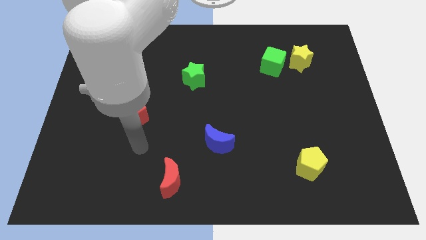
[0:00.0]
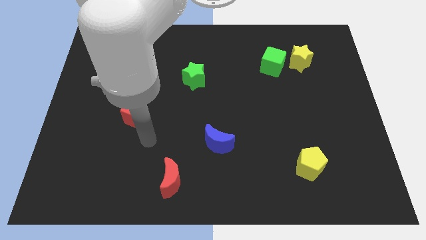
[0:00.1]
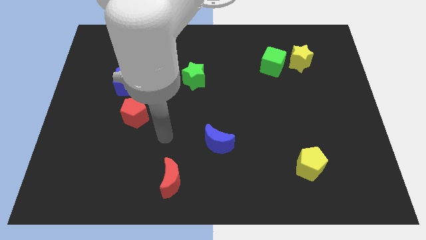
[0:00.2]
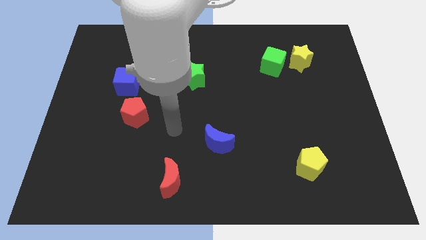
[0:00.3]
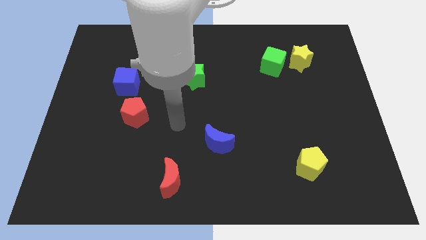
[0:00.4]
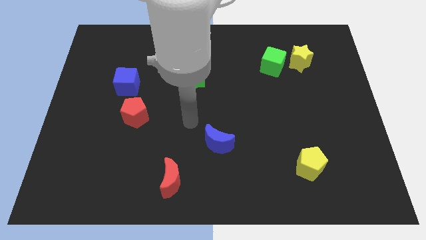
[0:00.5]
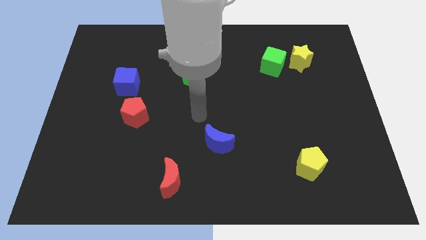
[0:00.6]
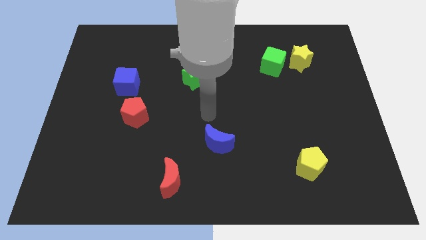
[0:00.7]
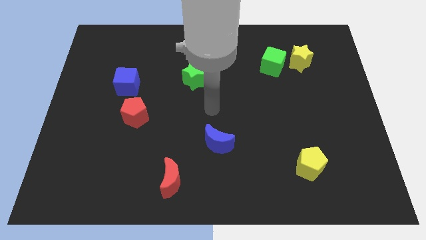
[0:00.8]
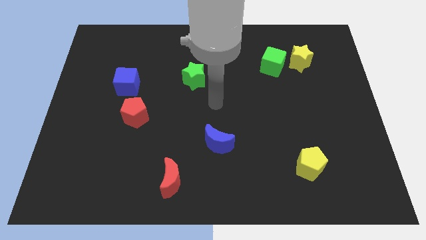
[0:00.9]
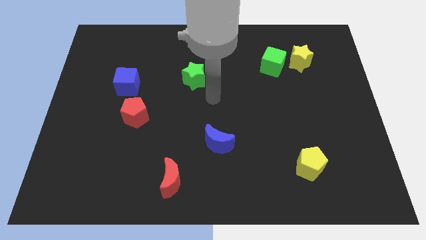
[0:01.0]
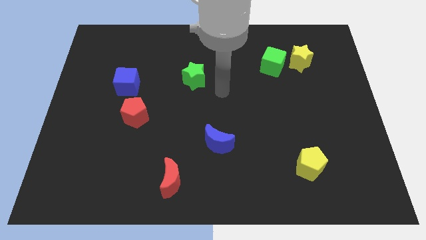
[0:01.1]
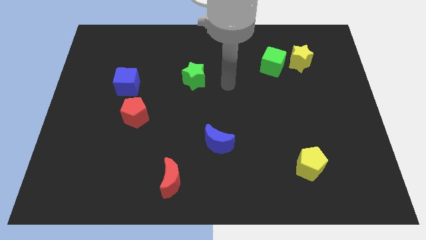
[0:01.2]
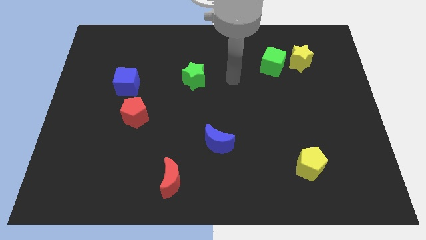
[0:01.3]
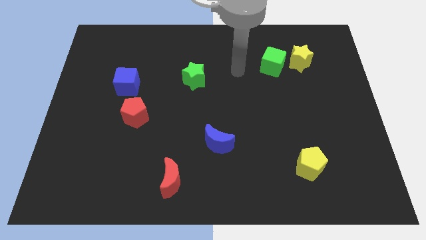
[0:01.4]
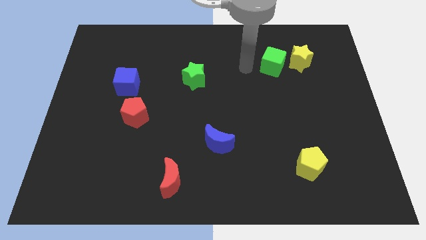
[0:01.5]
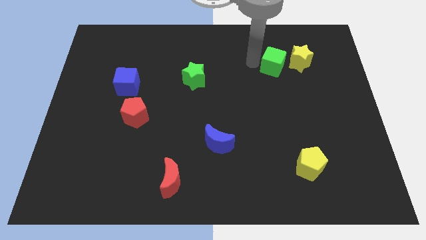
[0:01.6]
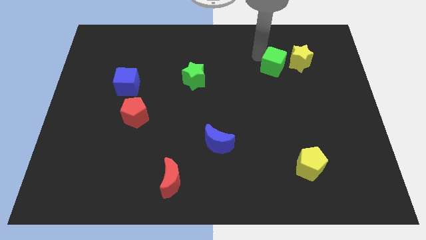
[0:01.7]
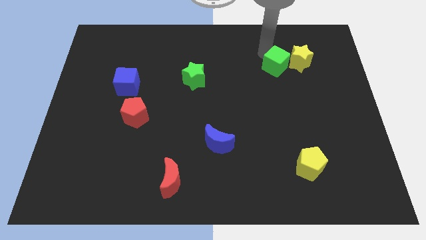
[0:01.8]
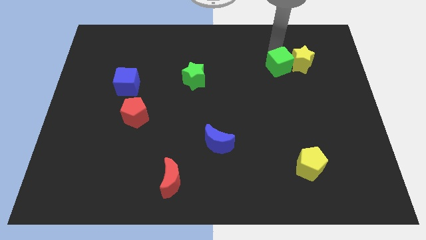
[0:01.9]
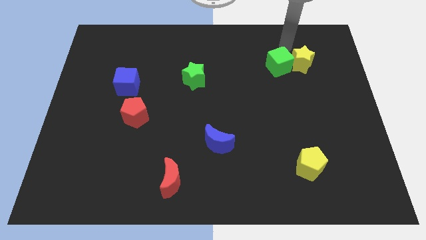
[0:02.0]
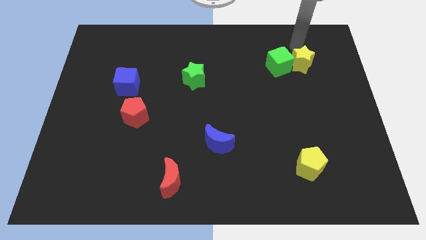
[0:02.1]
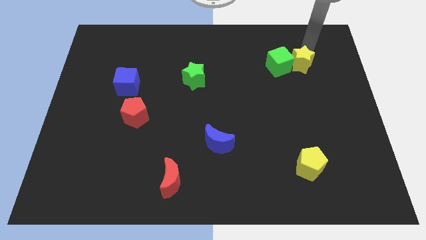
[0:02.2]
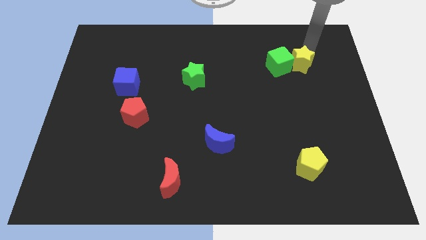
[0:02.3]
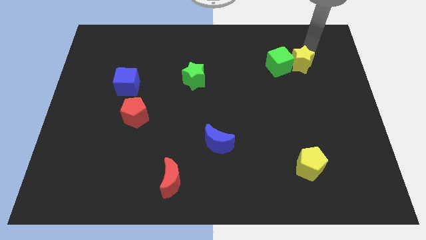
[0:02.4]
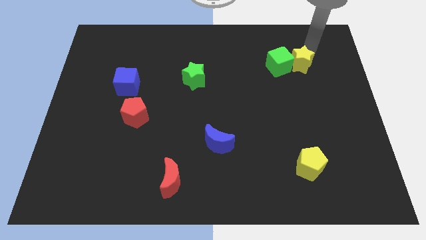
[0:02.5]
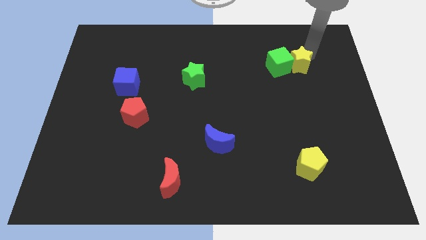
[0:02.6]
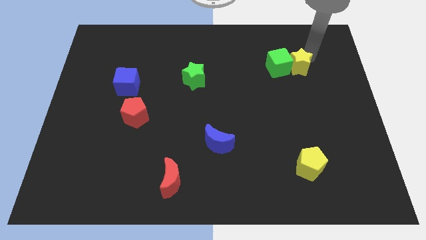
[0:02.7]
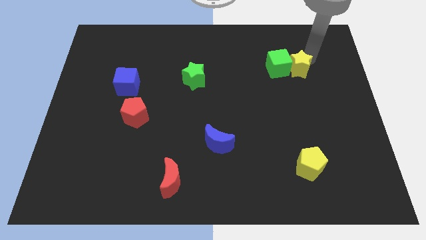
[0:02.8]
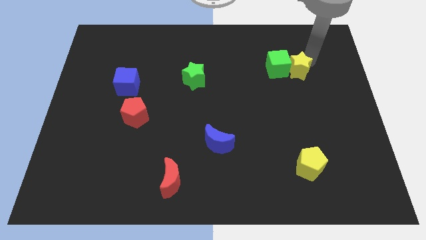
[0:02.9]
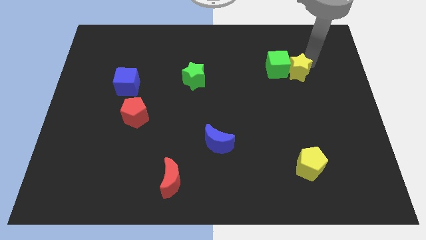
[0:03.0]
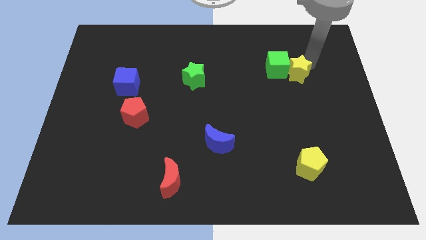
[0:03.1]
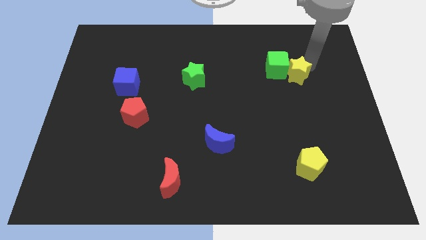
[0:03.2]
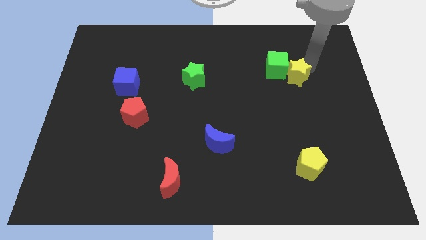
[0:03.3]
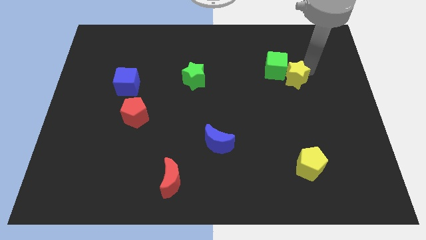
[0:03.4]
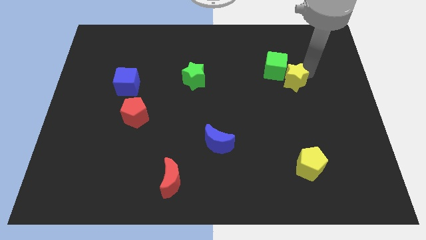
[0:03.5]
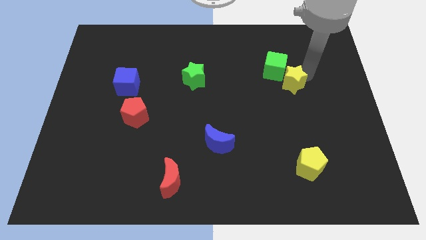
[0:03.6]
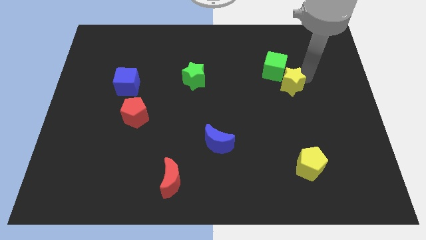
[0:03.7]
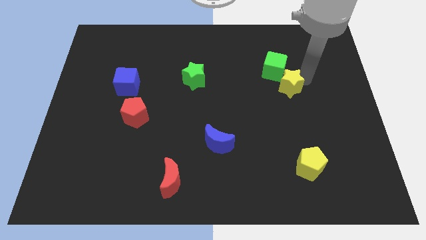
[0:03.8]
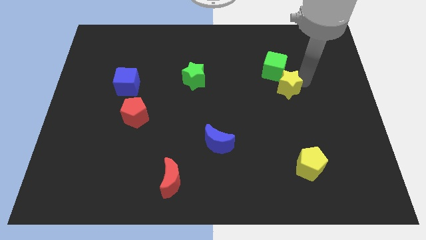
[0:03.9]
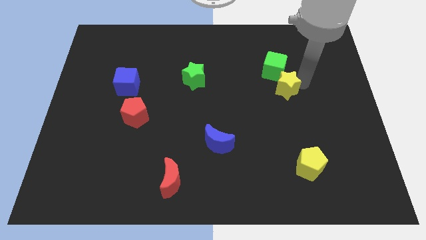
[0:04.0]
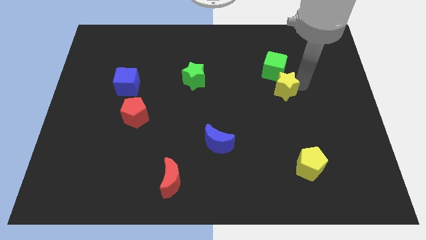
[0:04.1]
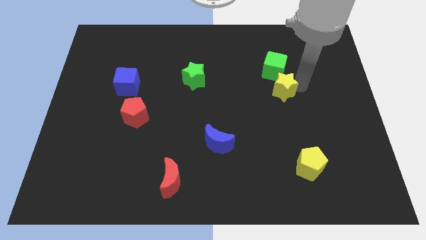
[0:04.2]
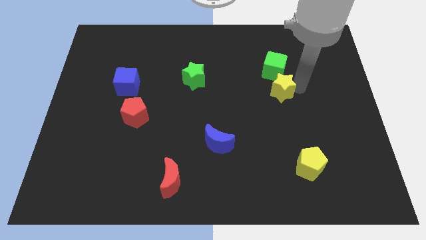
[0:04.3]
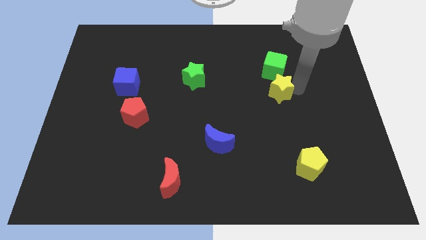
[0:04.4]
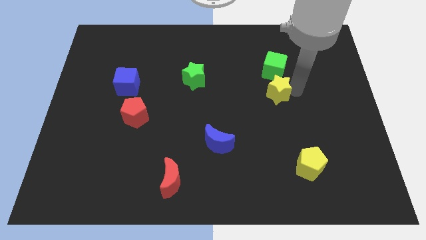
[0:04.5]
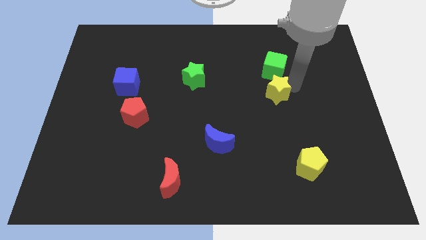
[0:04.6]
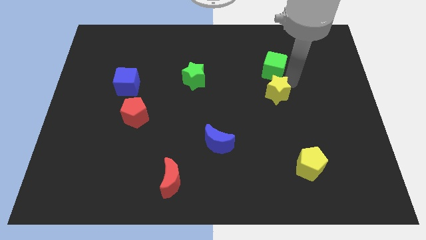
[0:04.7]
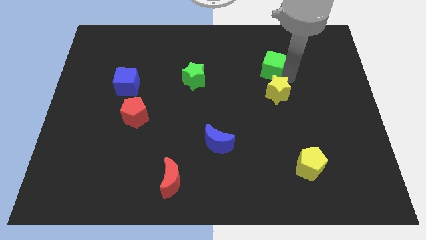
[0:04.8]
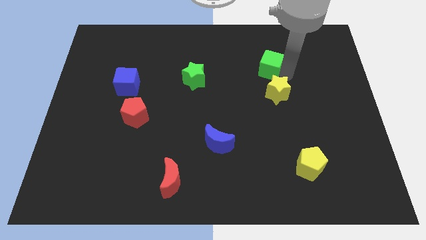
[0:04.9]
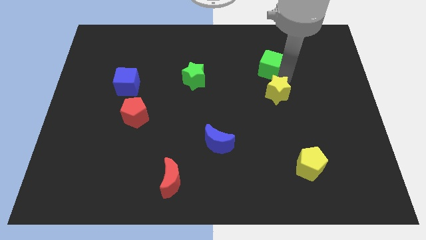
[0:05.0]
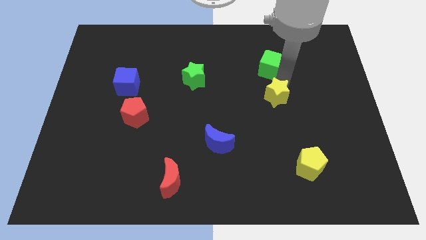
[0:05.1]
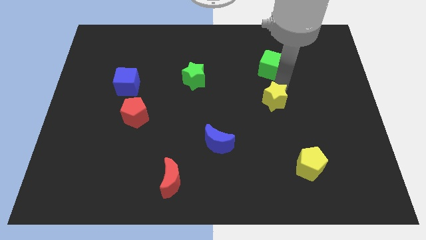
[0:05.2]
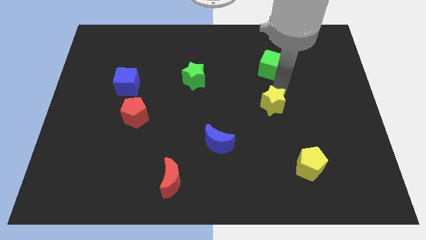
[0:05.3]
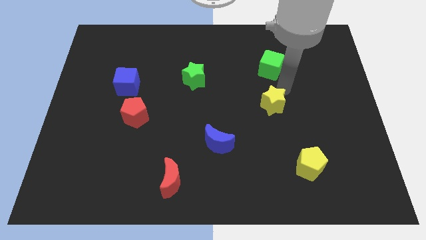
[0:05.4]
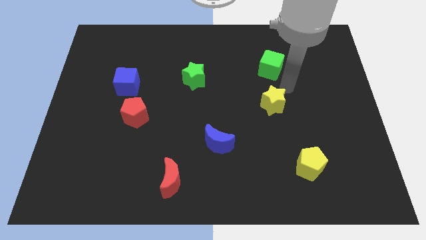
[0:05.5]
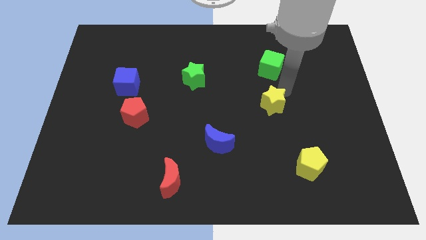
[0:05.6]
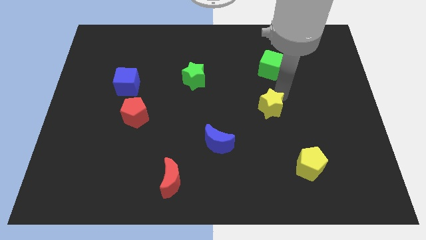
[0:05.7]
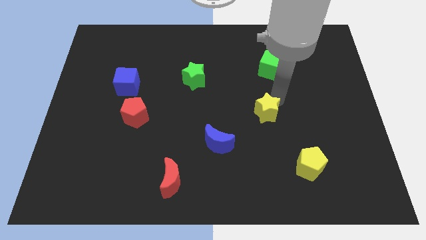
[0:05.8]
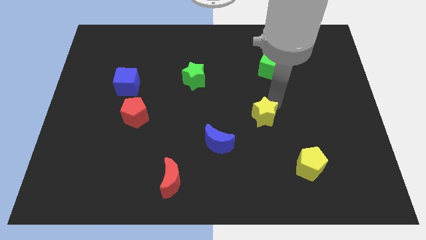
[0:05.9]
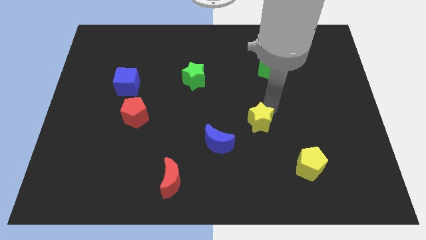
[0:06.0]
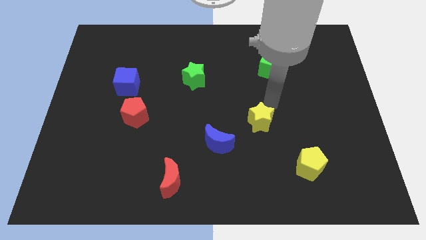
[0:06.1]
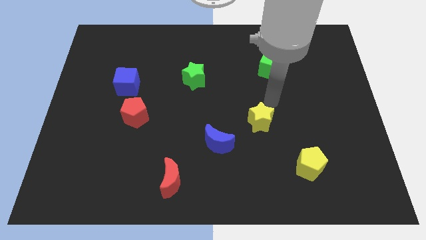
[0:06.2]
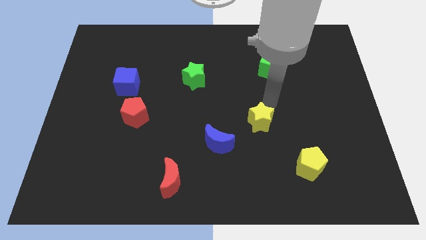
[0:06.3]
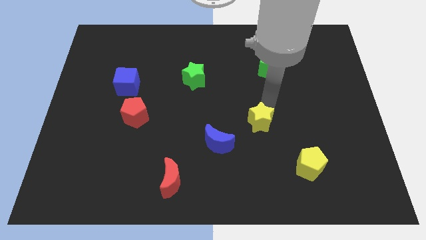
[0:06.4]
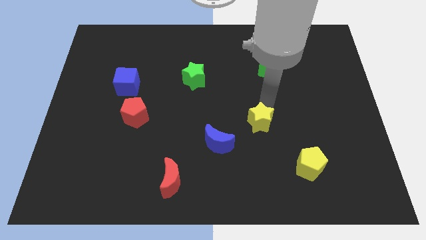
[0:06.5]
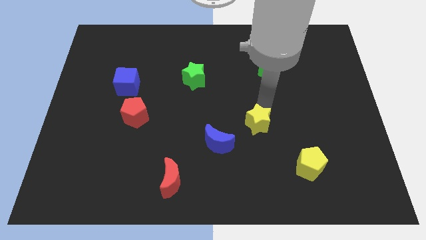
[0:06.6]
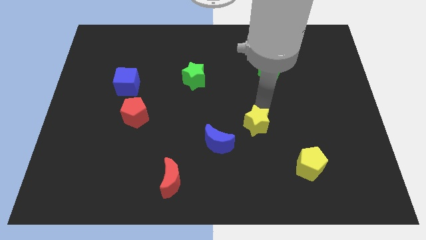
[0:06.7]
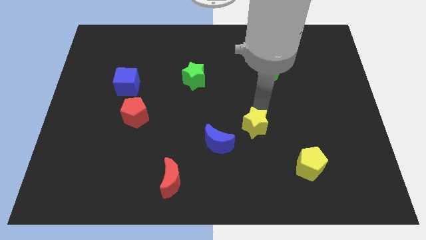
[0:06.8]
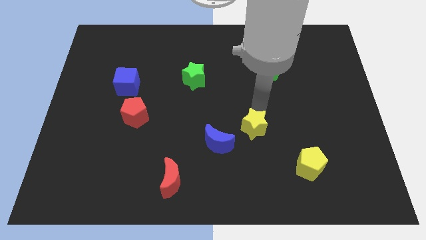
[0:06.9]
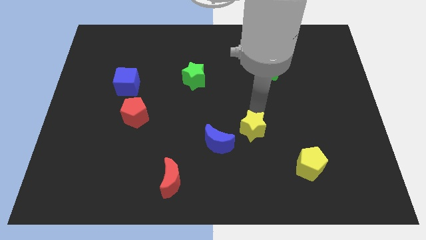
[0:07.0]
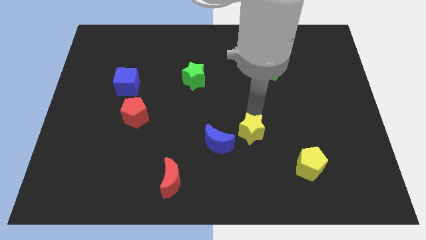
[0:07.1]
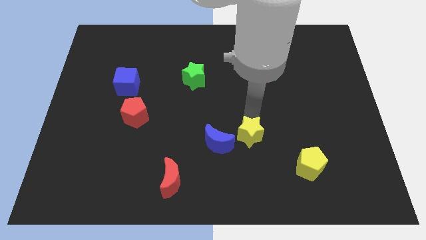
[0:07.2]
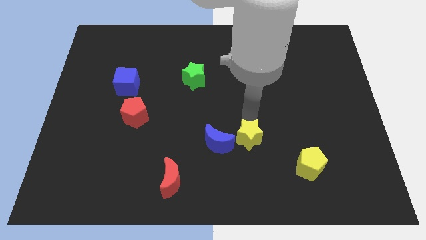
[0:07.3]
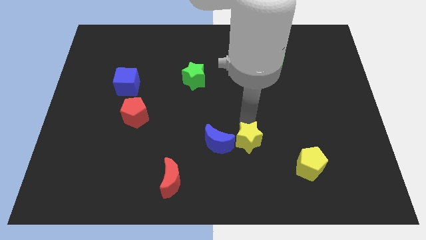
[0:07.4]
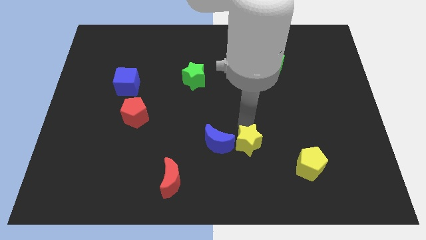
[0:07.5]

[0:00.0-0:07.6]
put the yellow star to the bottom right of the blue moon
